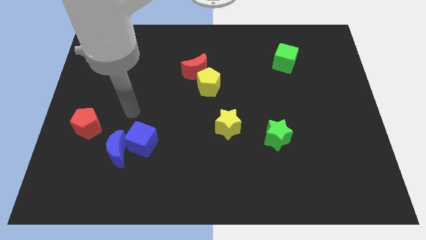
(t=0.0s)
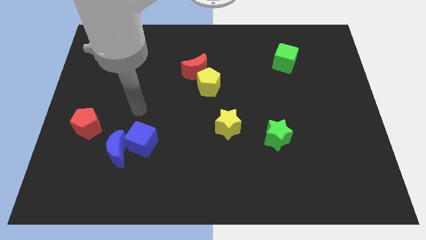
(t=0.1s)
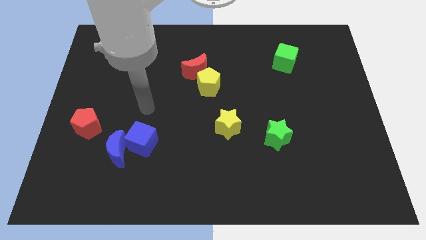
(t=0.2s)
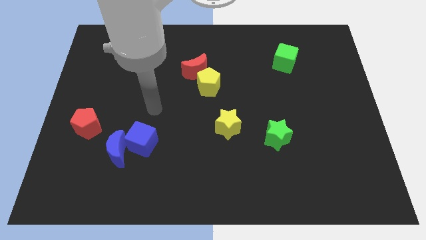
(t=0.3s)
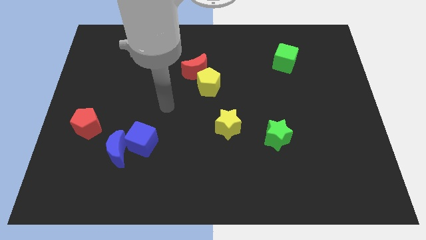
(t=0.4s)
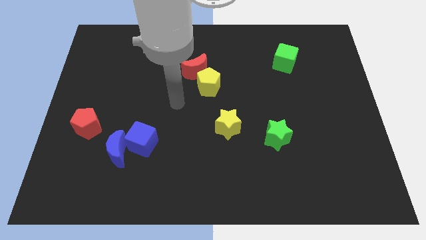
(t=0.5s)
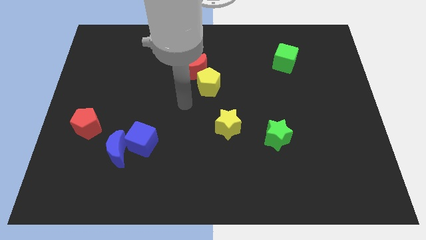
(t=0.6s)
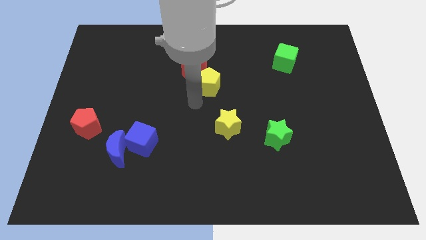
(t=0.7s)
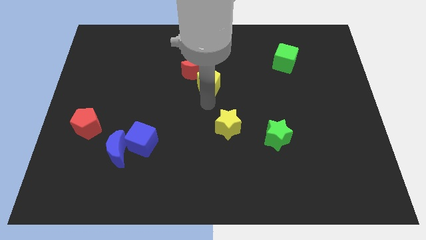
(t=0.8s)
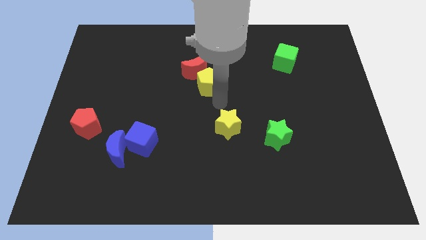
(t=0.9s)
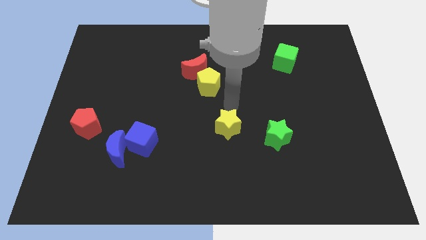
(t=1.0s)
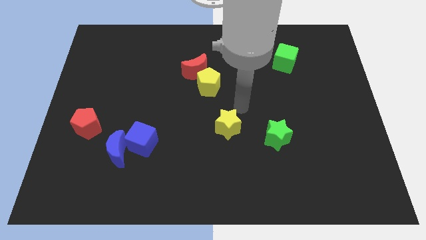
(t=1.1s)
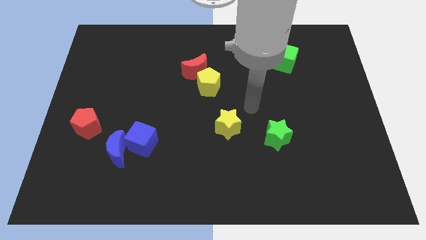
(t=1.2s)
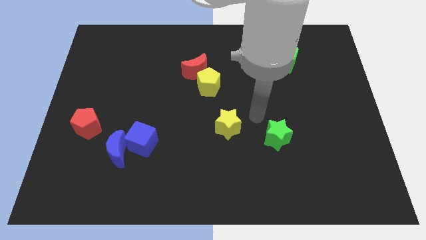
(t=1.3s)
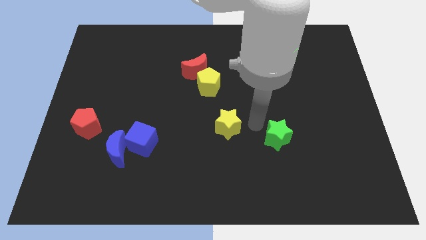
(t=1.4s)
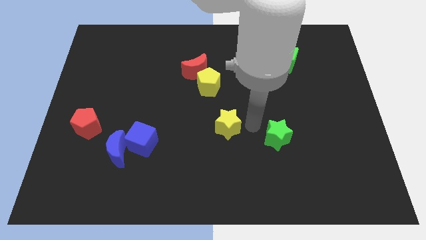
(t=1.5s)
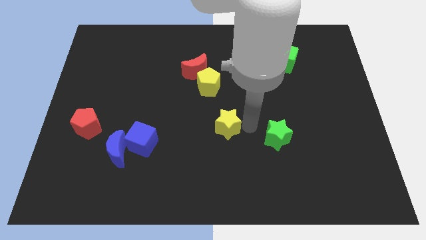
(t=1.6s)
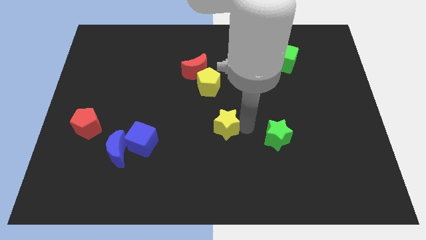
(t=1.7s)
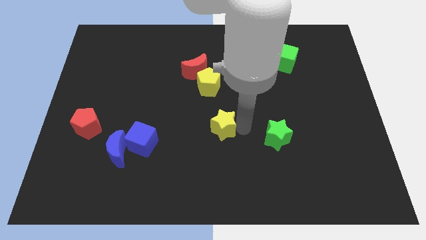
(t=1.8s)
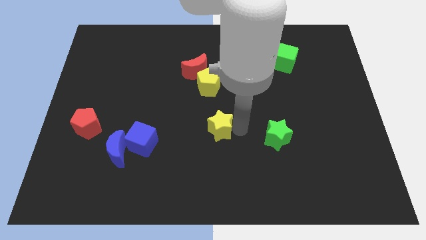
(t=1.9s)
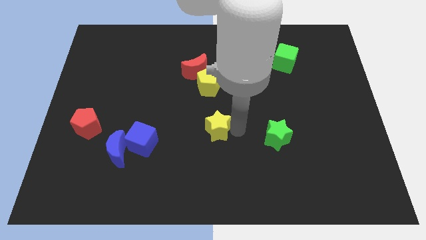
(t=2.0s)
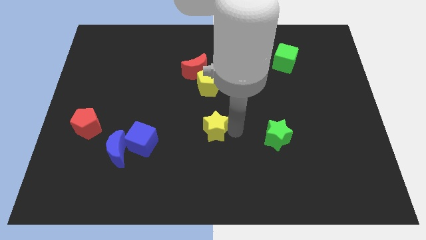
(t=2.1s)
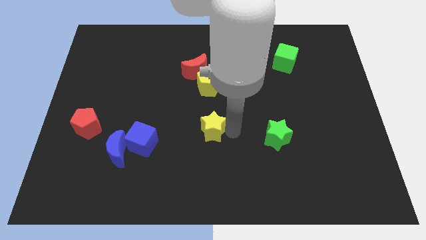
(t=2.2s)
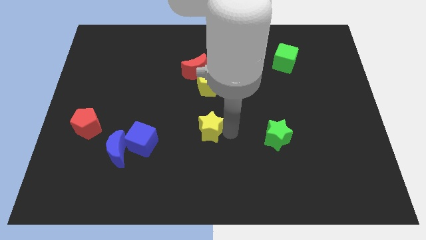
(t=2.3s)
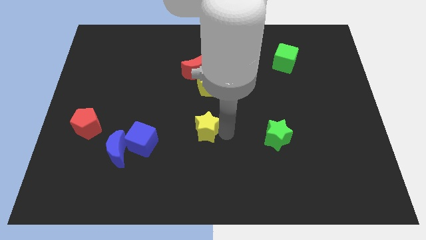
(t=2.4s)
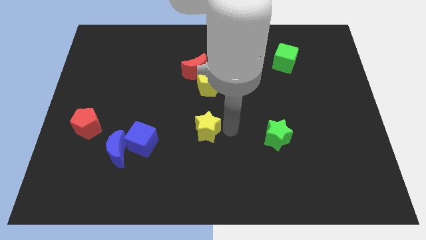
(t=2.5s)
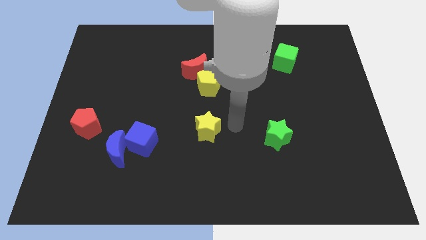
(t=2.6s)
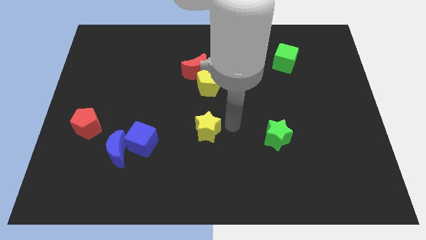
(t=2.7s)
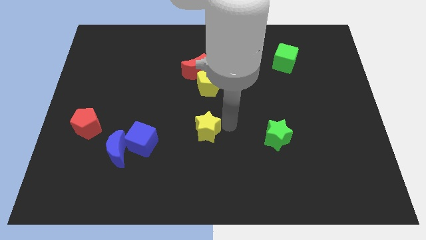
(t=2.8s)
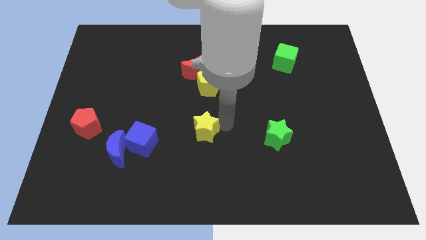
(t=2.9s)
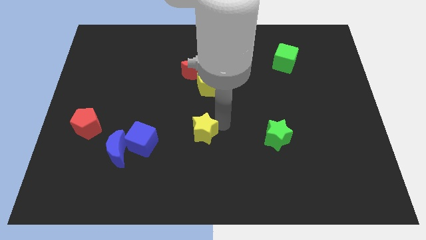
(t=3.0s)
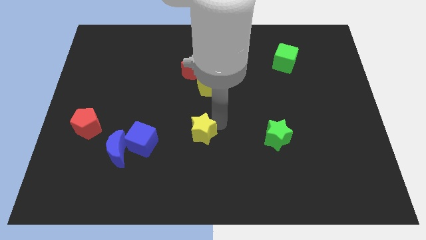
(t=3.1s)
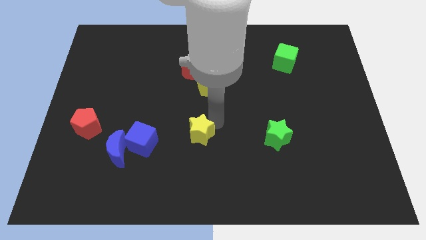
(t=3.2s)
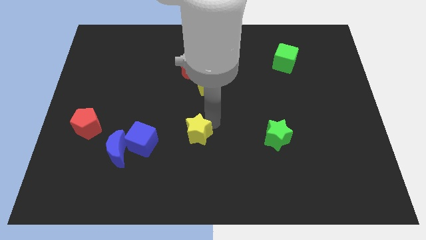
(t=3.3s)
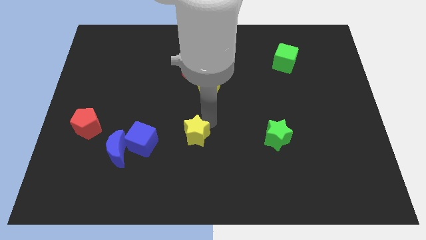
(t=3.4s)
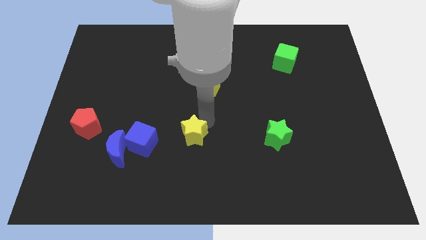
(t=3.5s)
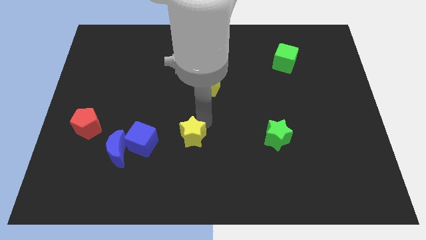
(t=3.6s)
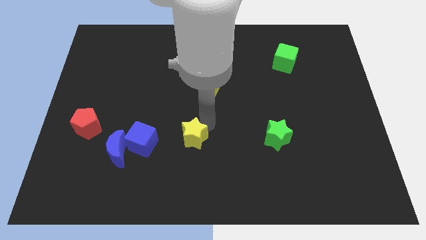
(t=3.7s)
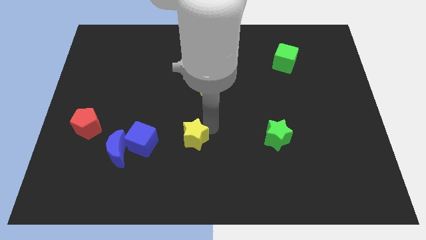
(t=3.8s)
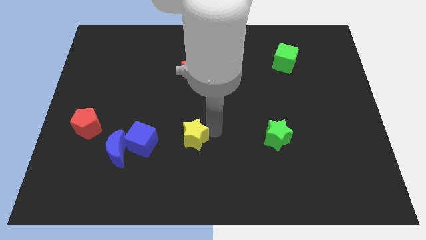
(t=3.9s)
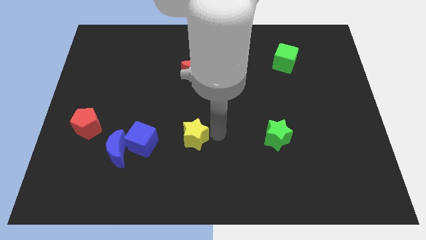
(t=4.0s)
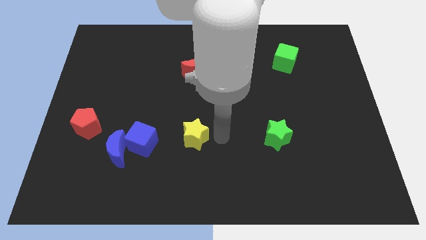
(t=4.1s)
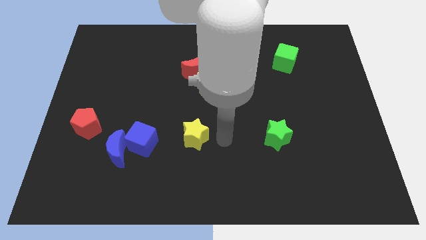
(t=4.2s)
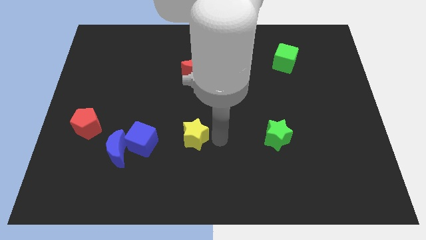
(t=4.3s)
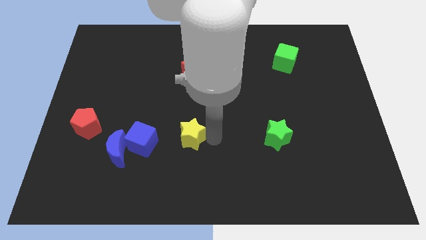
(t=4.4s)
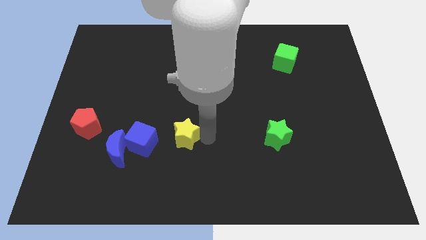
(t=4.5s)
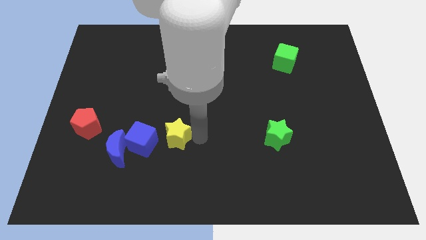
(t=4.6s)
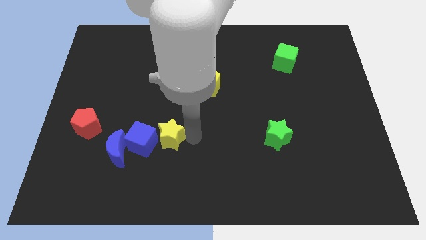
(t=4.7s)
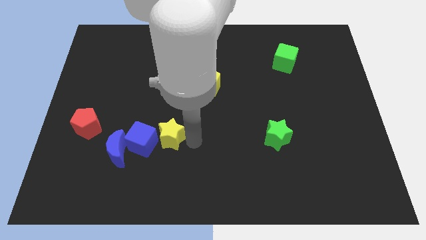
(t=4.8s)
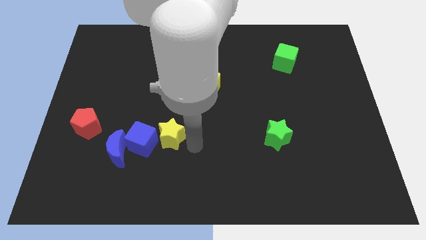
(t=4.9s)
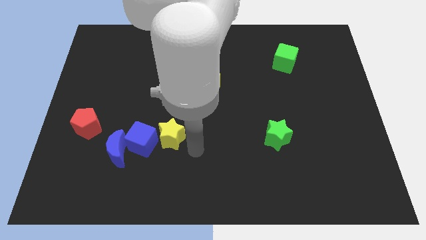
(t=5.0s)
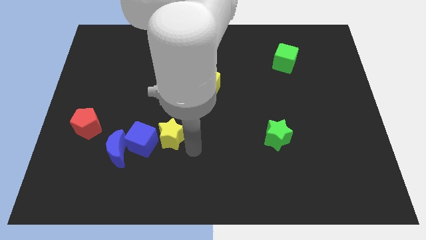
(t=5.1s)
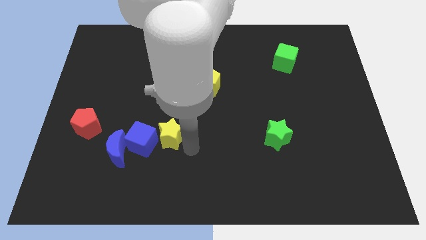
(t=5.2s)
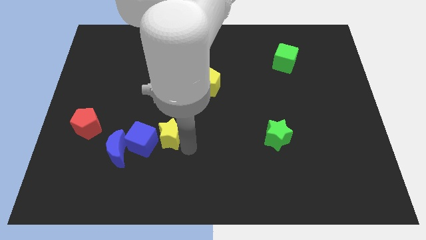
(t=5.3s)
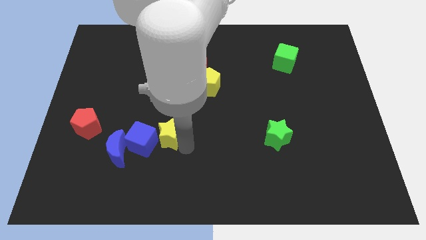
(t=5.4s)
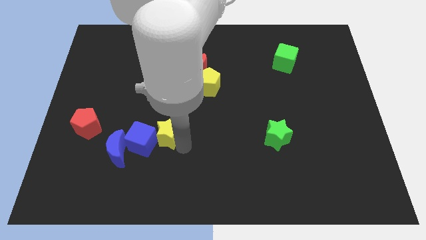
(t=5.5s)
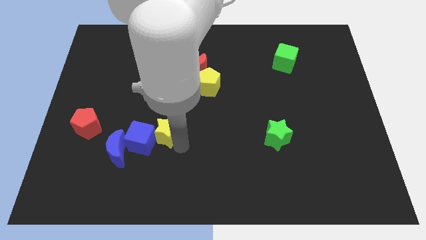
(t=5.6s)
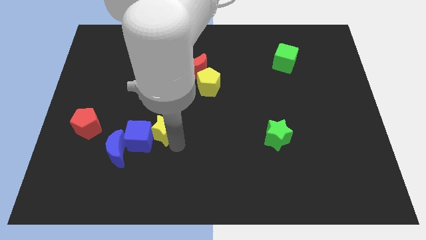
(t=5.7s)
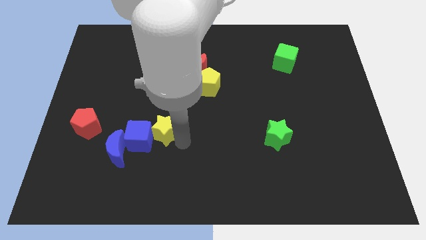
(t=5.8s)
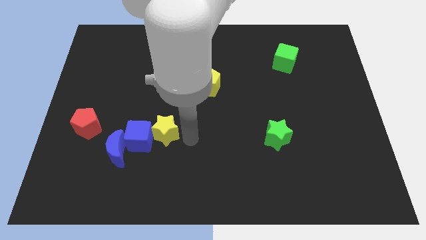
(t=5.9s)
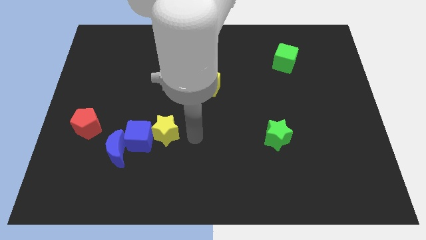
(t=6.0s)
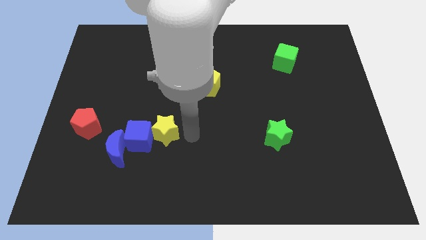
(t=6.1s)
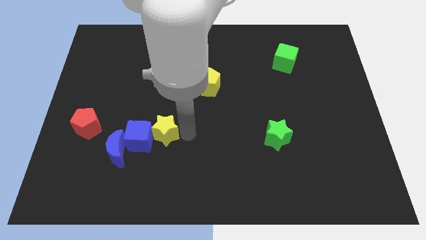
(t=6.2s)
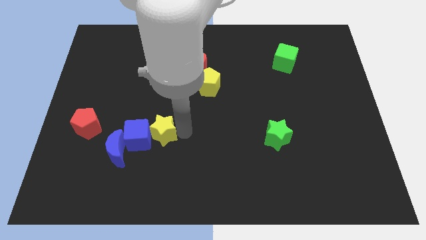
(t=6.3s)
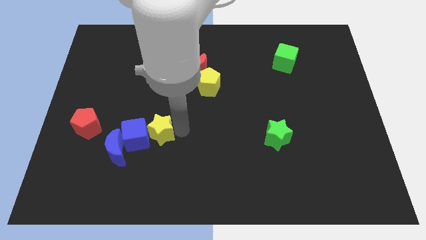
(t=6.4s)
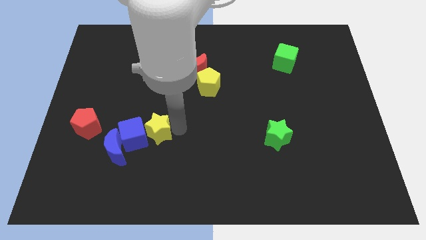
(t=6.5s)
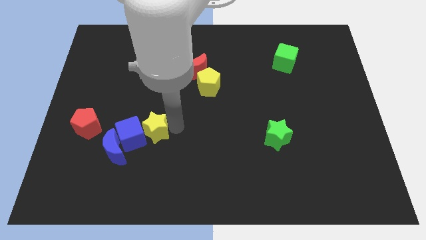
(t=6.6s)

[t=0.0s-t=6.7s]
move the yellow star to the right side of the red pentagon

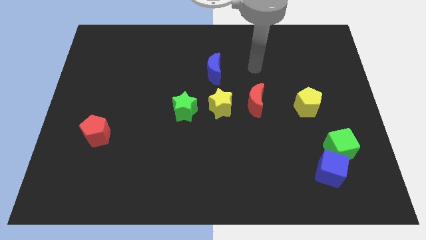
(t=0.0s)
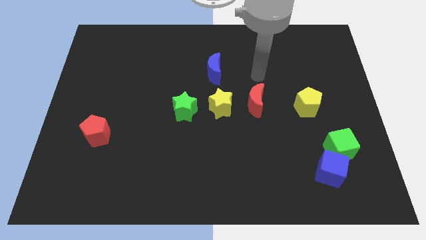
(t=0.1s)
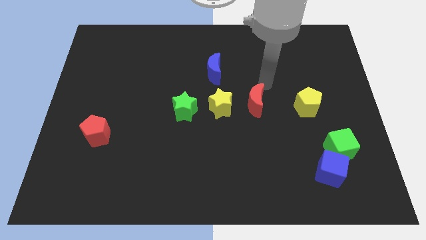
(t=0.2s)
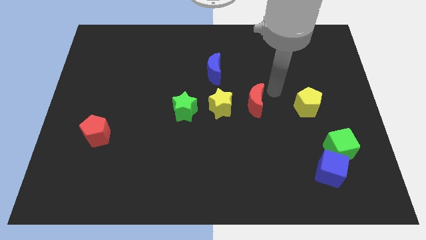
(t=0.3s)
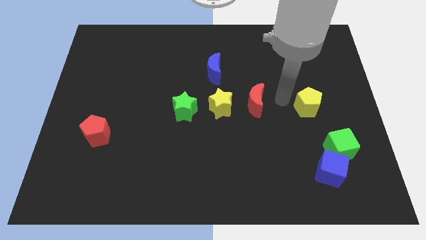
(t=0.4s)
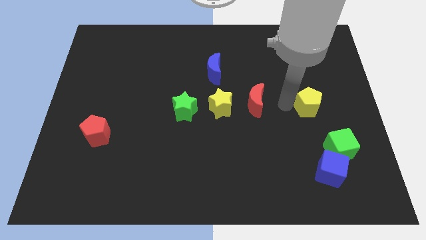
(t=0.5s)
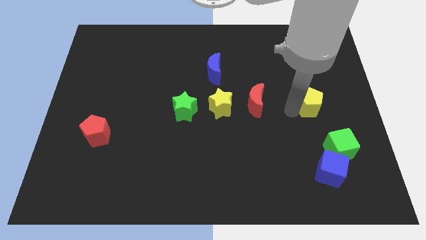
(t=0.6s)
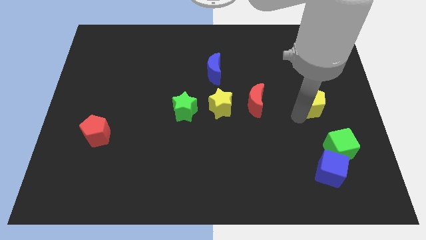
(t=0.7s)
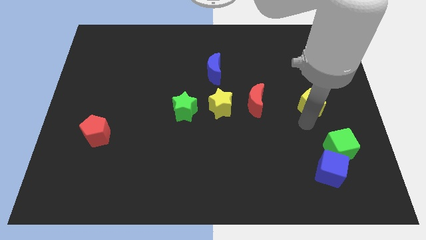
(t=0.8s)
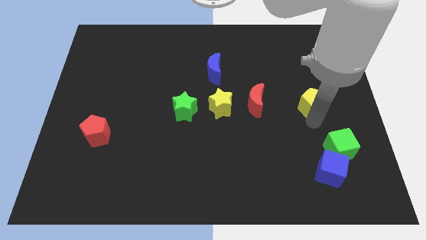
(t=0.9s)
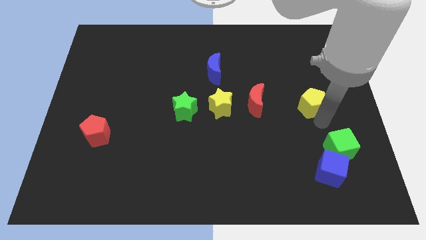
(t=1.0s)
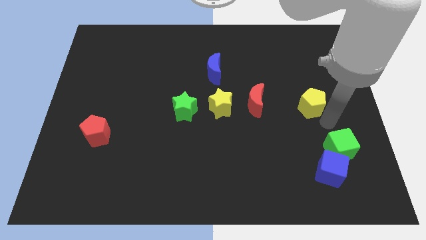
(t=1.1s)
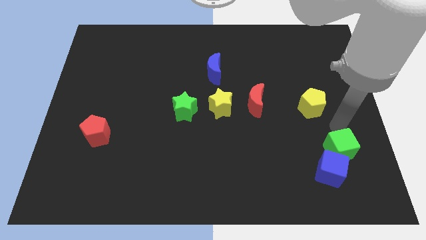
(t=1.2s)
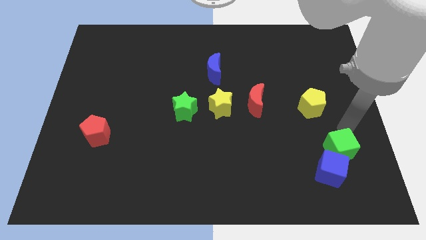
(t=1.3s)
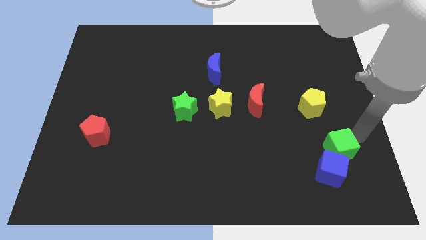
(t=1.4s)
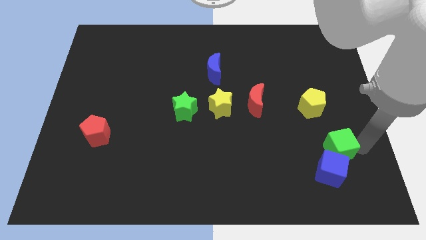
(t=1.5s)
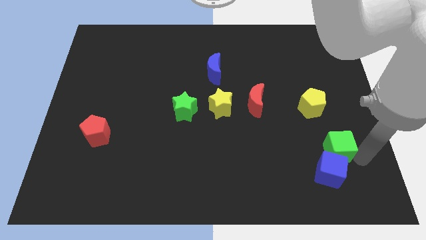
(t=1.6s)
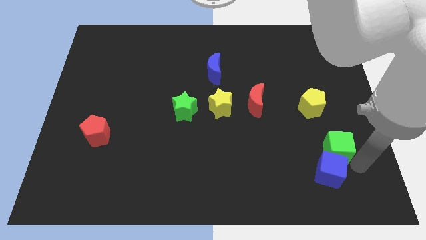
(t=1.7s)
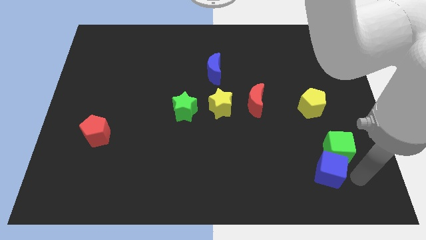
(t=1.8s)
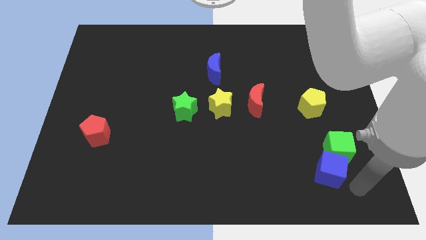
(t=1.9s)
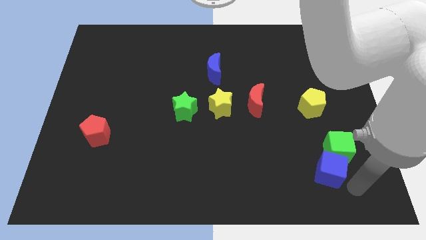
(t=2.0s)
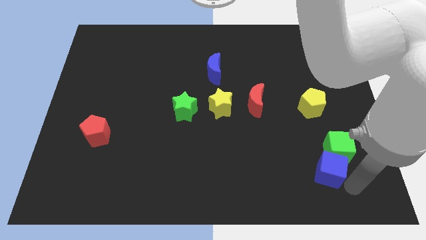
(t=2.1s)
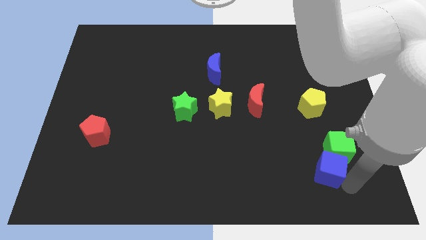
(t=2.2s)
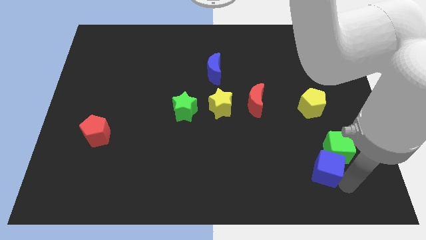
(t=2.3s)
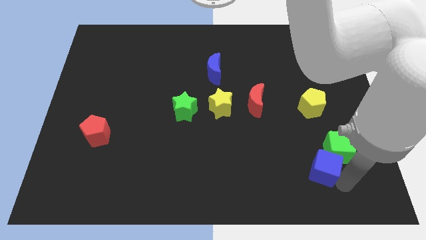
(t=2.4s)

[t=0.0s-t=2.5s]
push the blue cube left of the green cube
